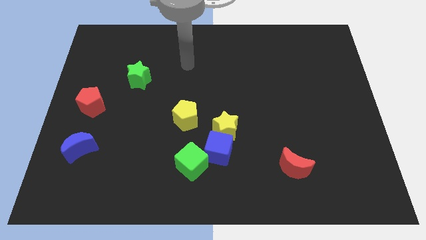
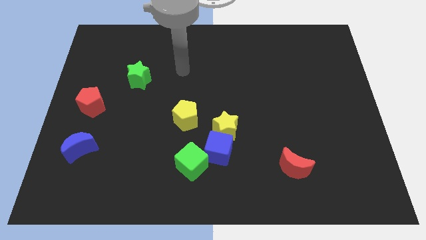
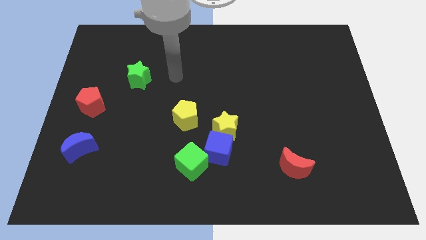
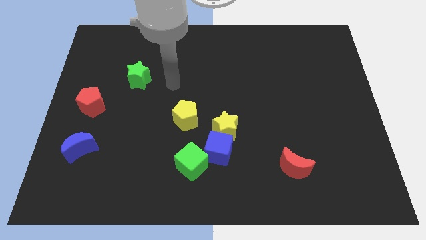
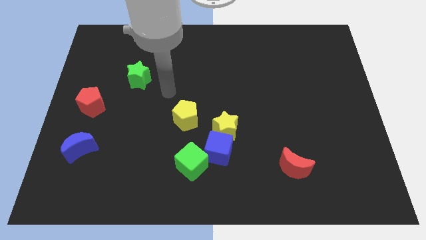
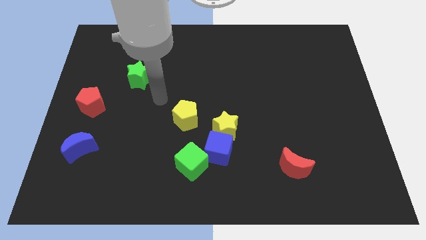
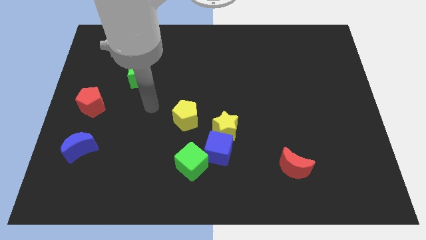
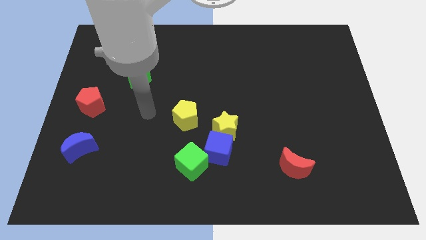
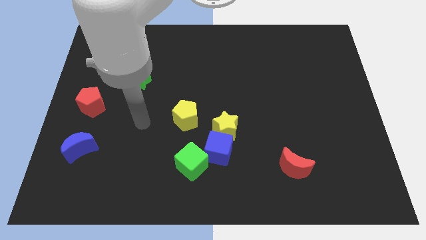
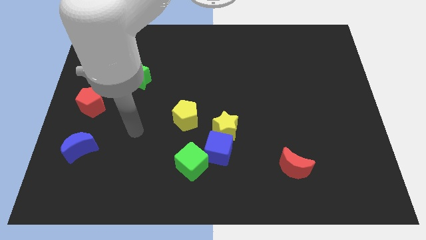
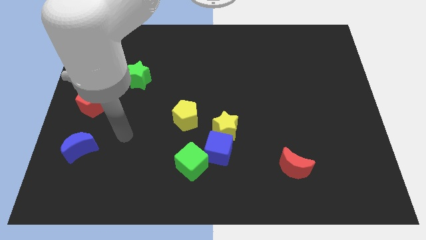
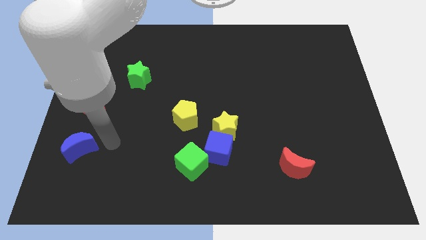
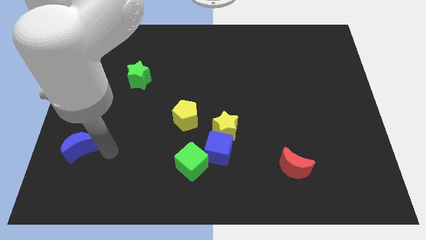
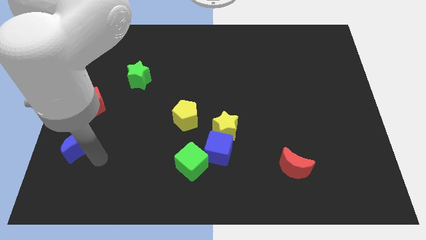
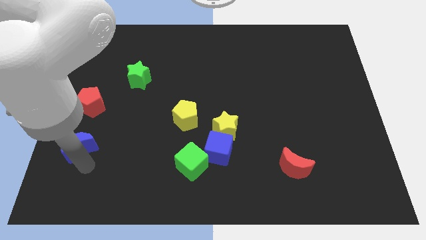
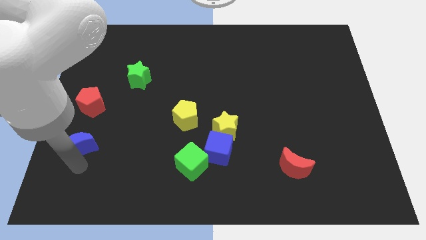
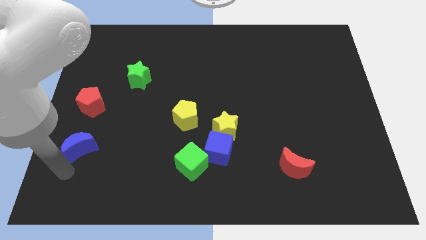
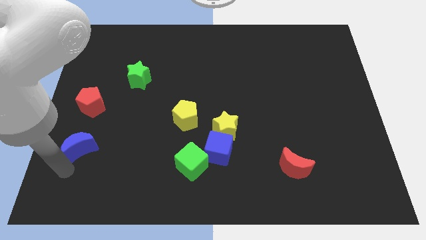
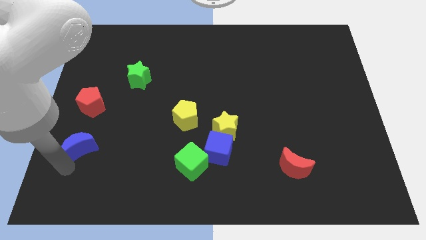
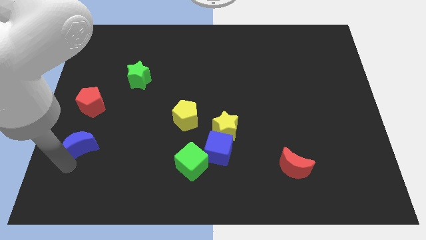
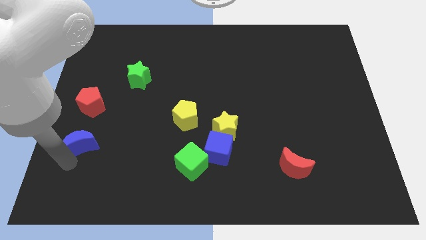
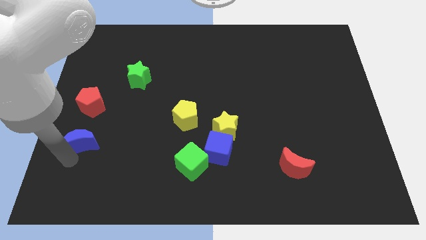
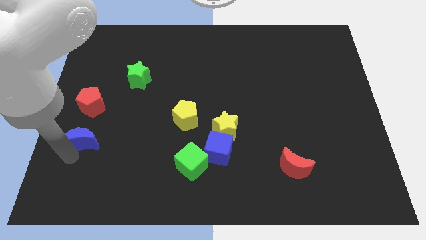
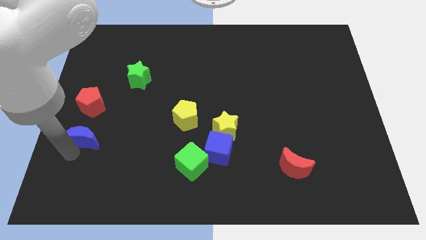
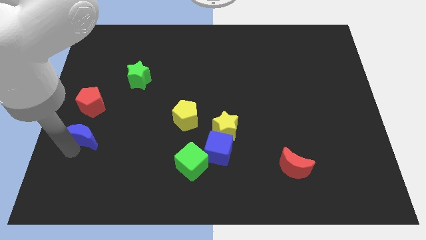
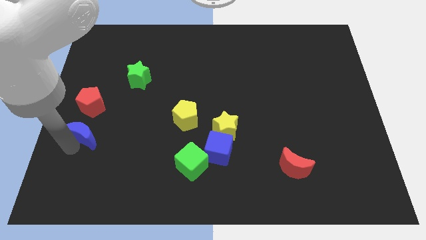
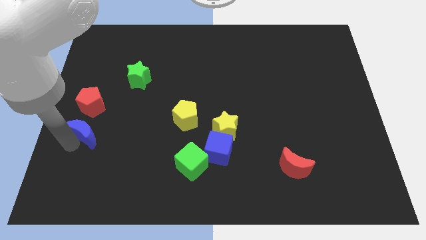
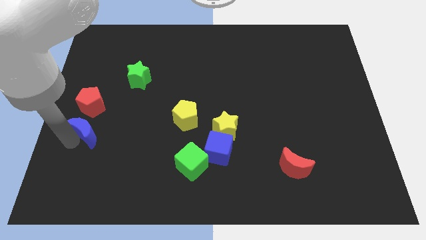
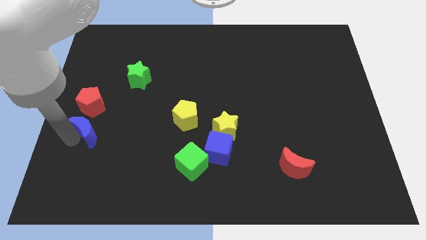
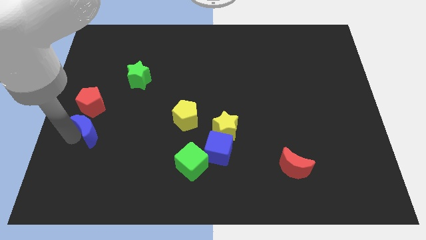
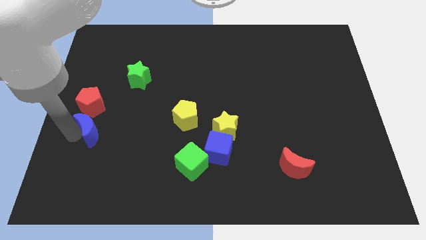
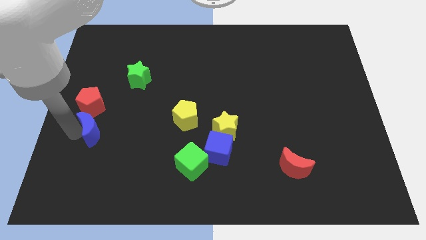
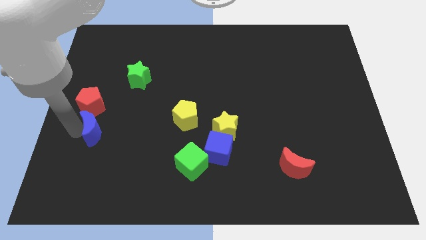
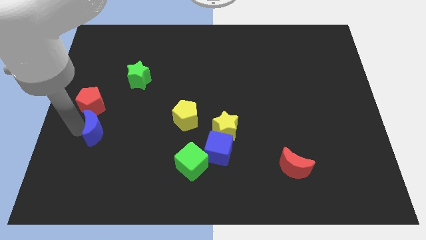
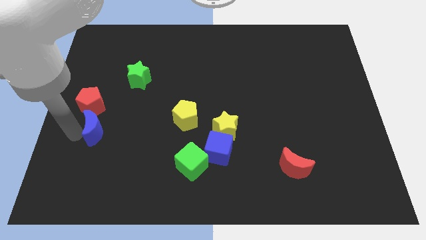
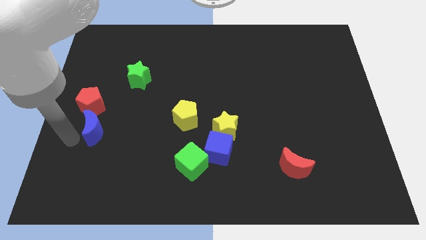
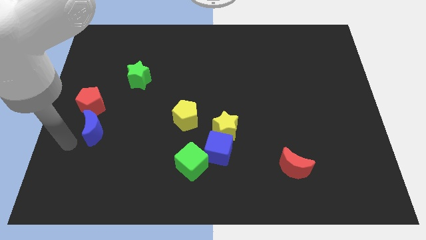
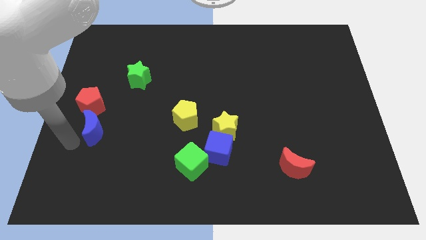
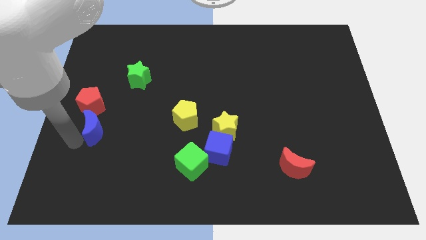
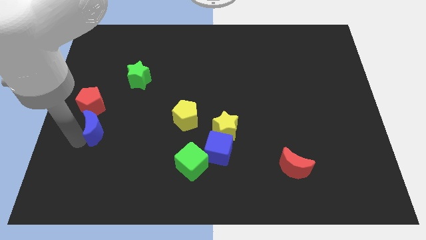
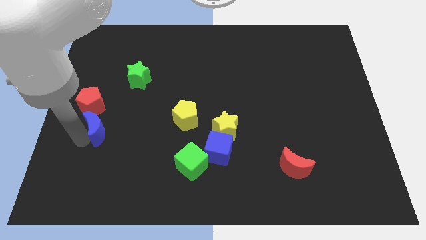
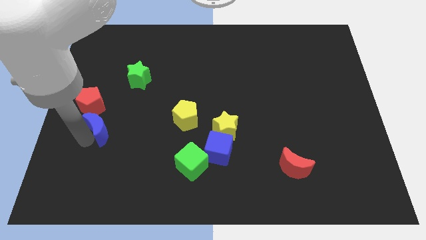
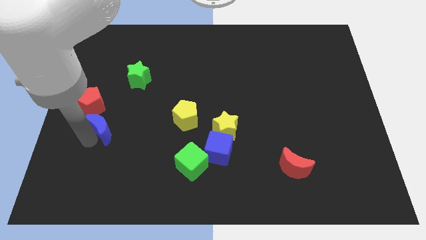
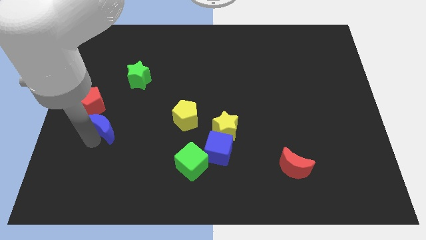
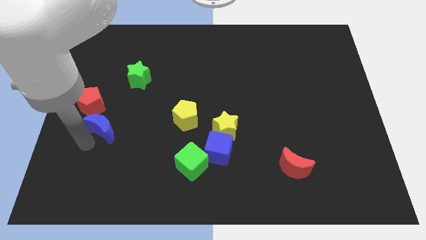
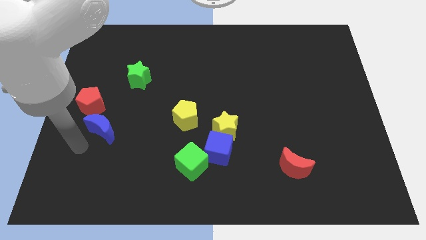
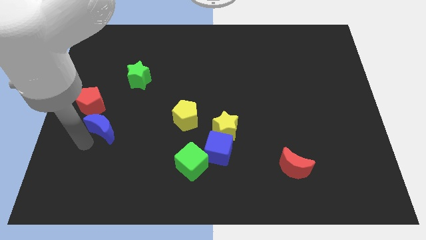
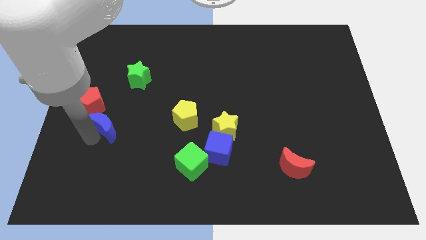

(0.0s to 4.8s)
move the blue moon a little up and then to the right

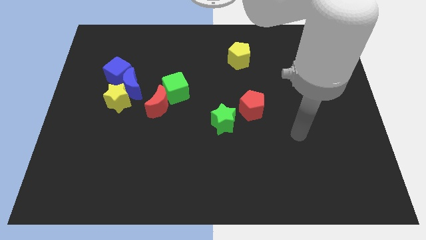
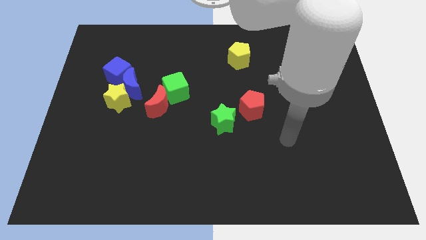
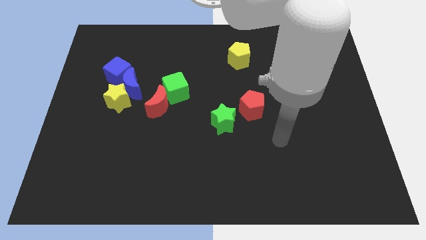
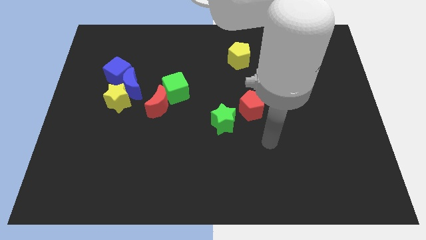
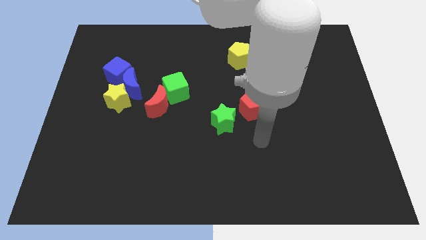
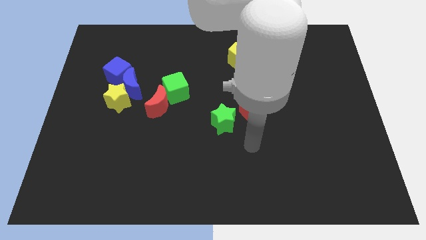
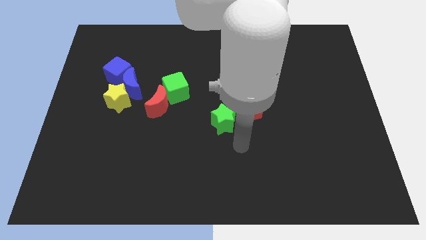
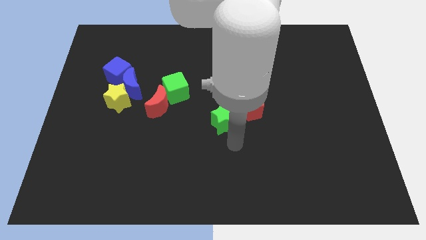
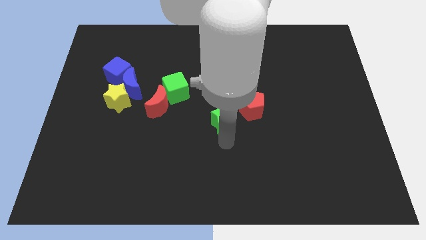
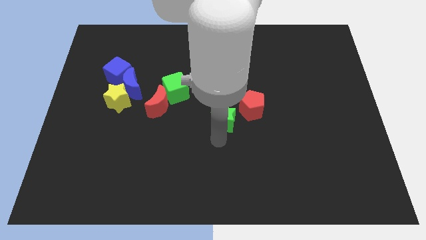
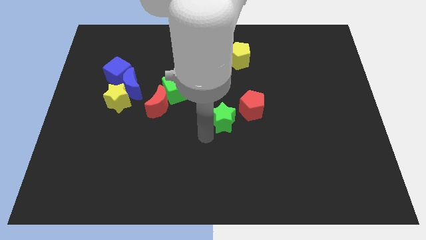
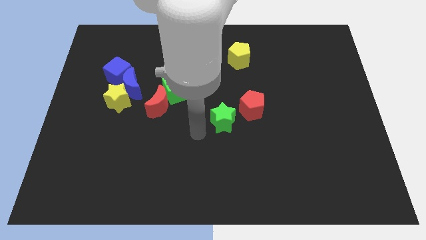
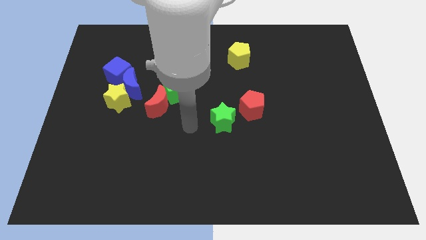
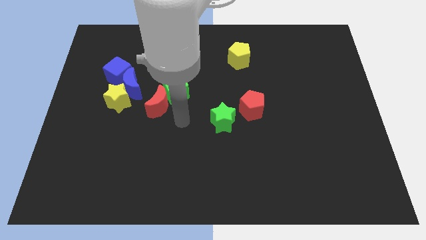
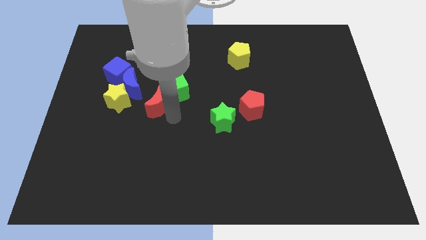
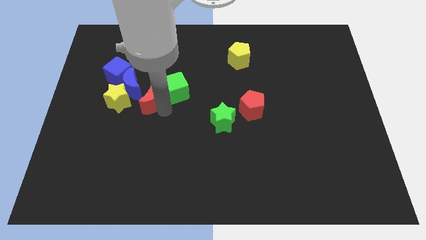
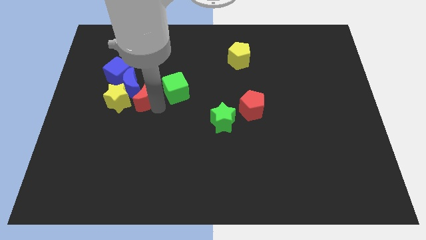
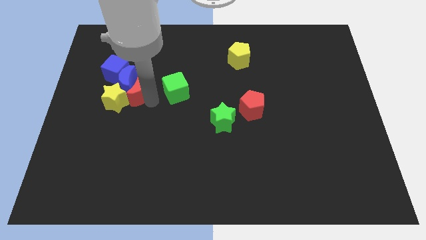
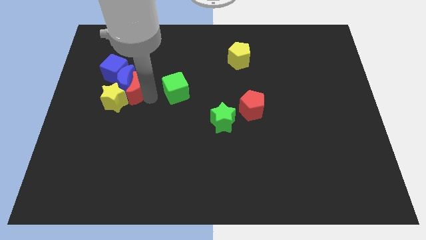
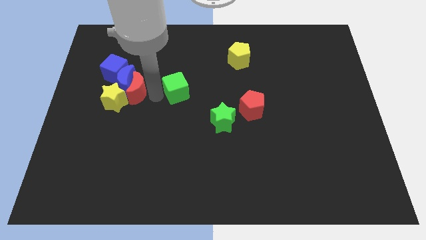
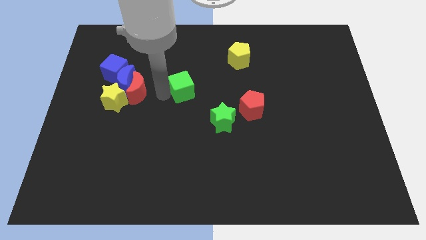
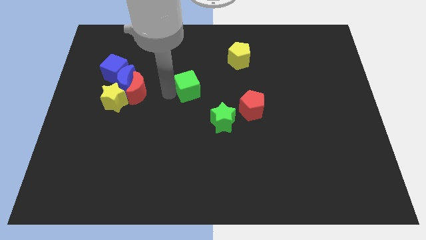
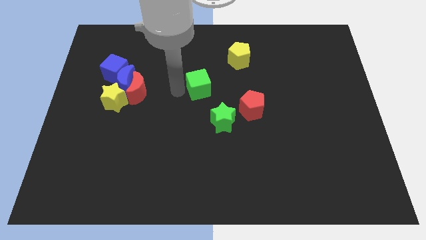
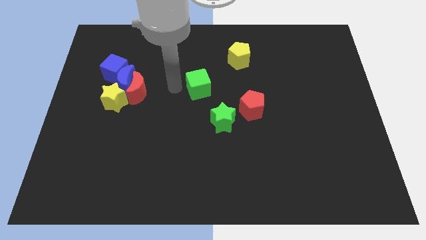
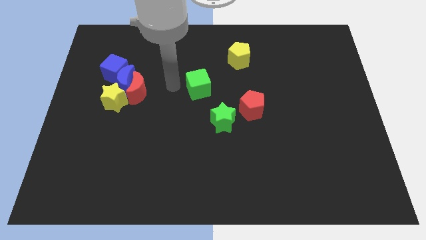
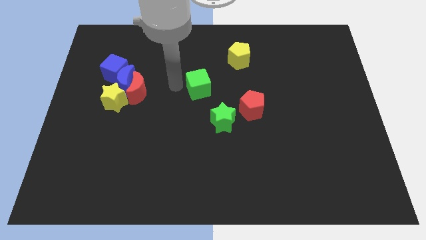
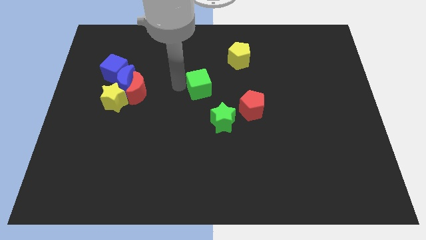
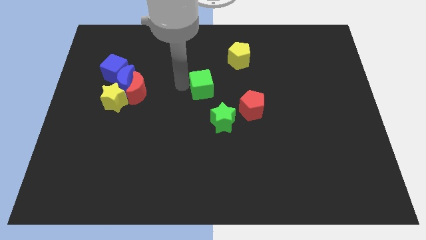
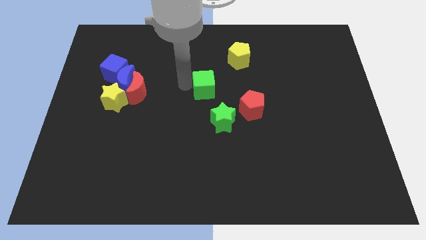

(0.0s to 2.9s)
move the green cube to the right somewhat

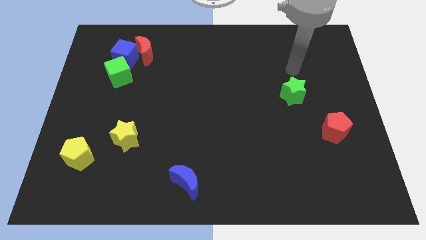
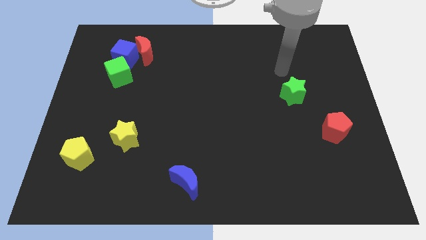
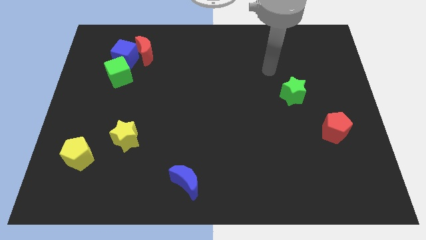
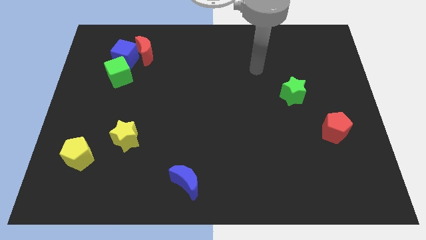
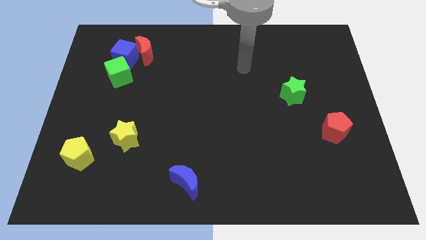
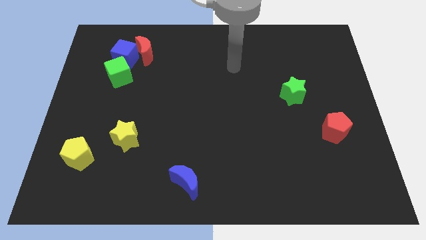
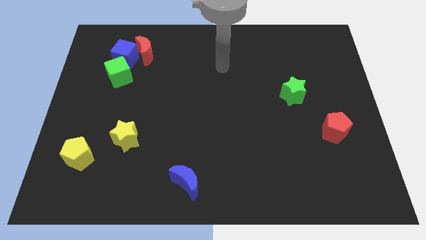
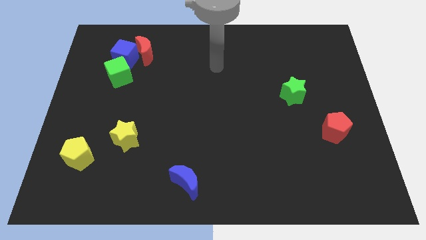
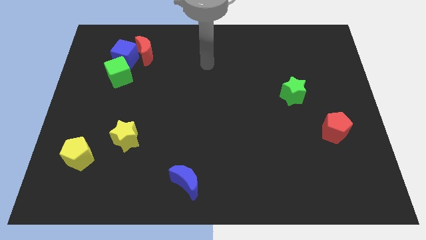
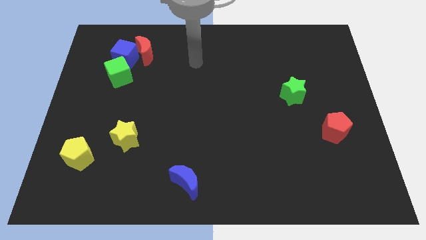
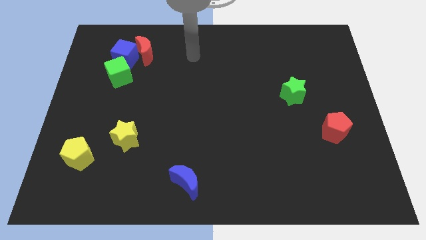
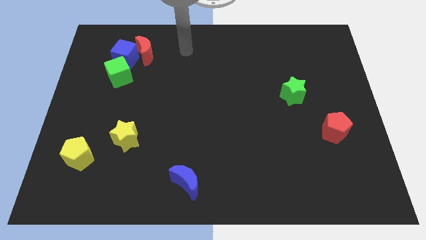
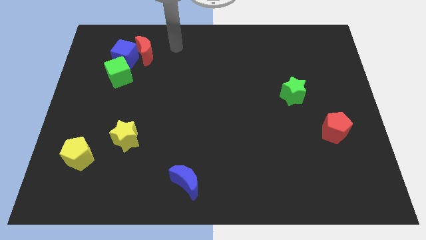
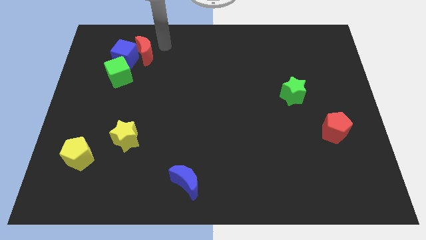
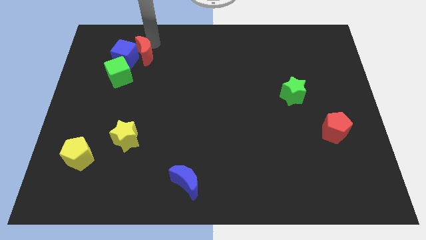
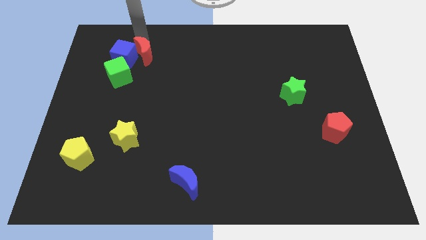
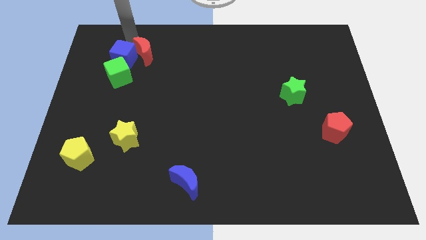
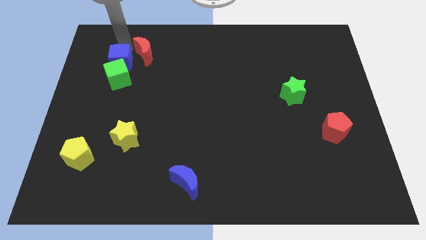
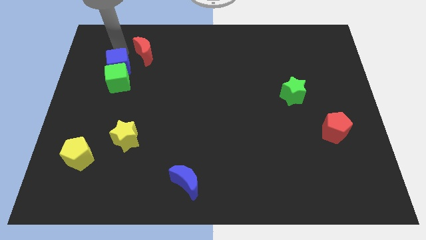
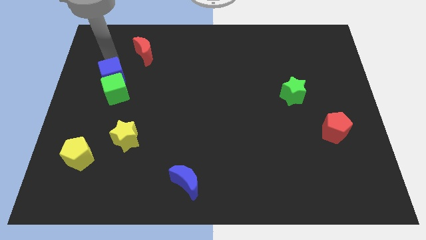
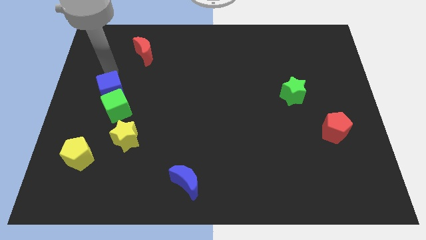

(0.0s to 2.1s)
slightly push the green cube down
